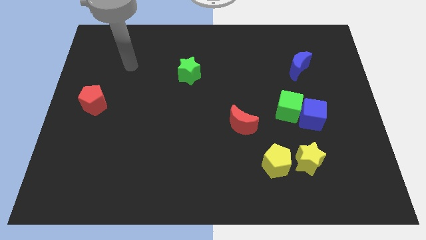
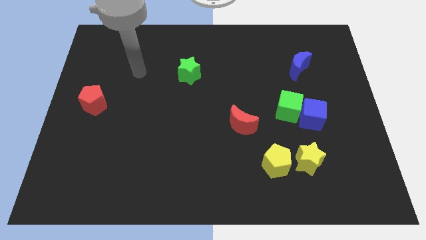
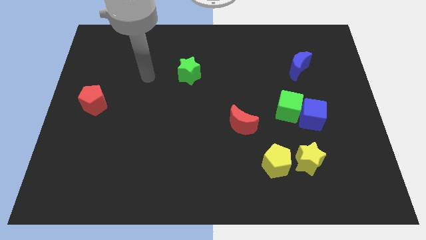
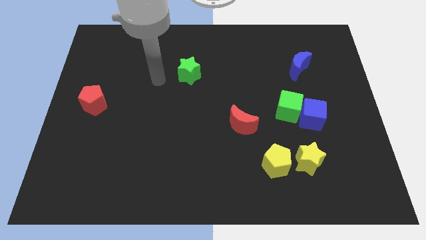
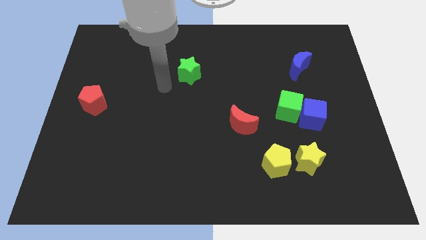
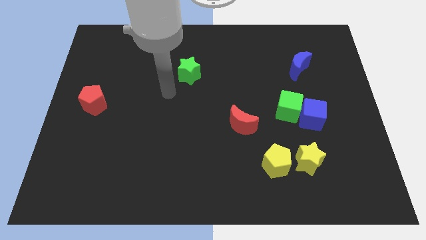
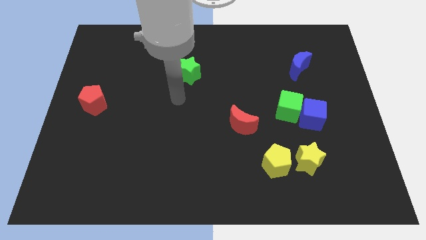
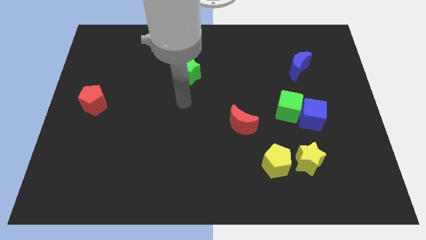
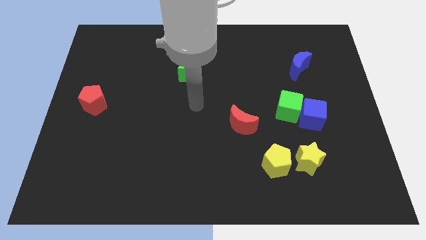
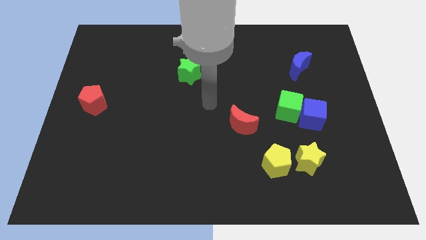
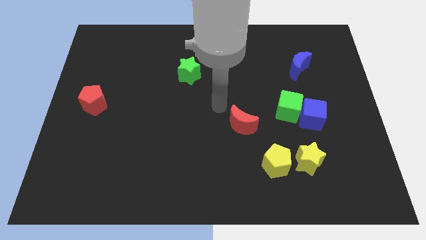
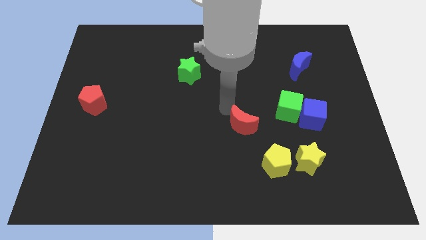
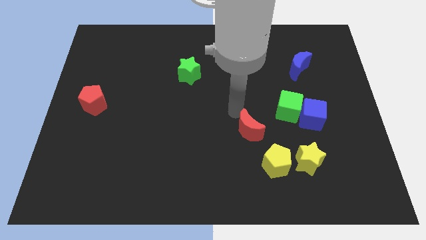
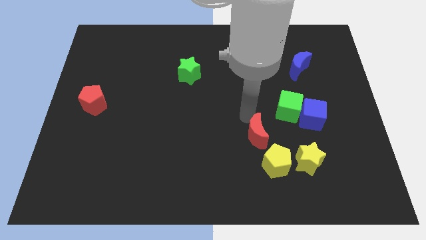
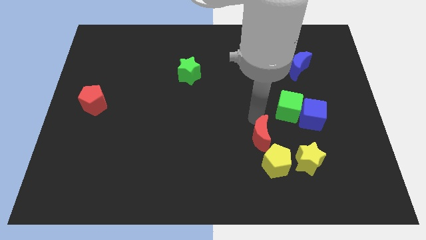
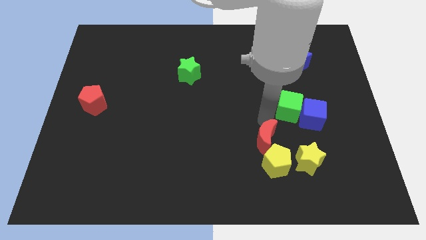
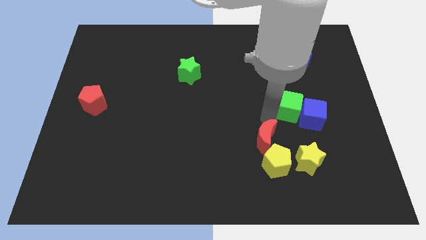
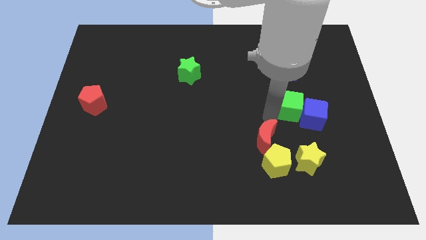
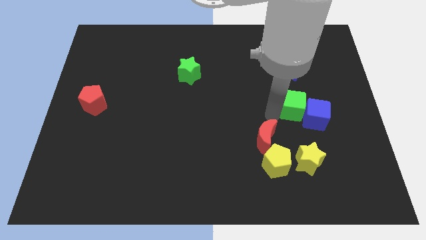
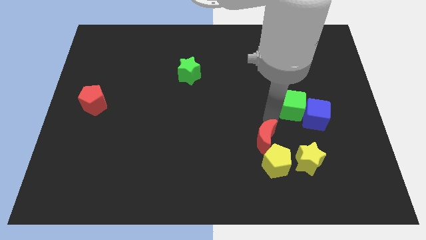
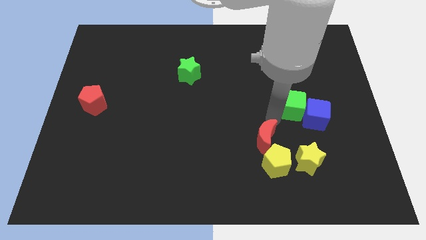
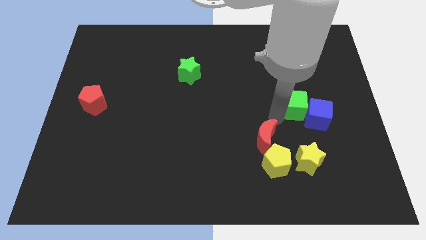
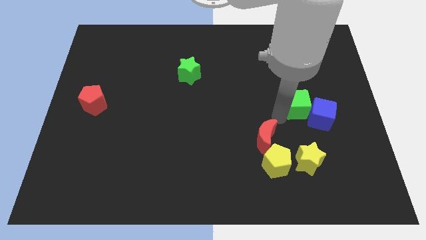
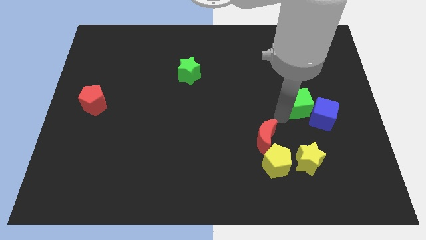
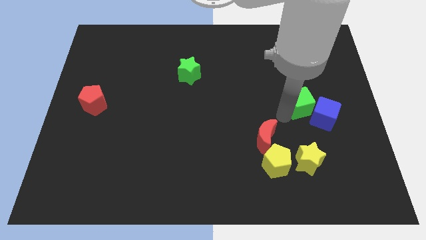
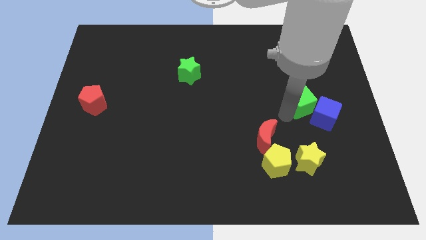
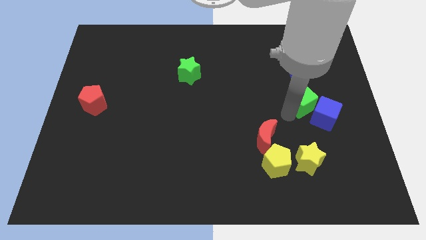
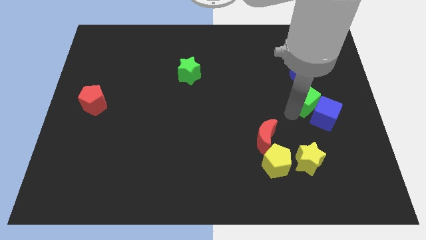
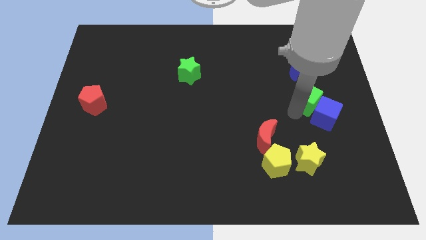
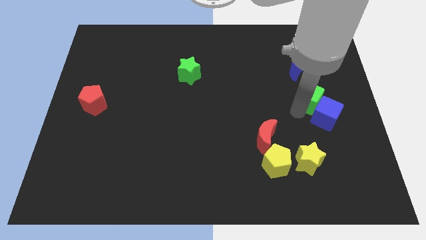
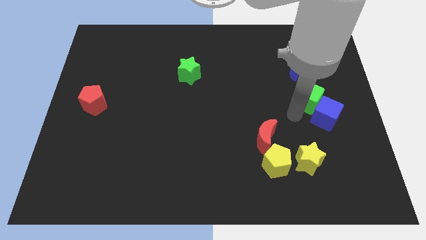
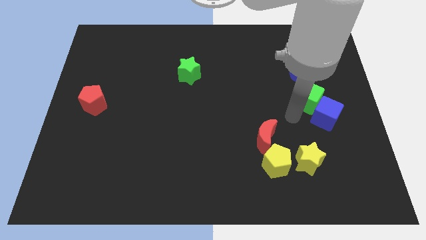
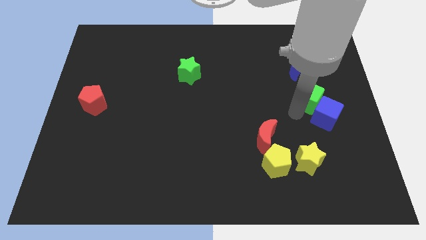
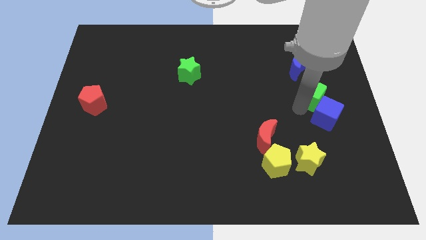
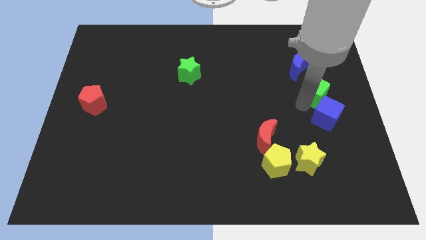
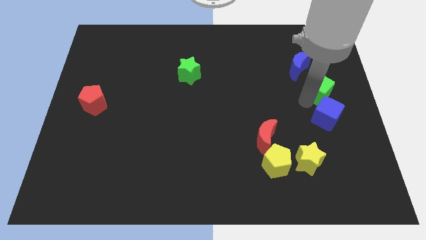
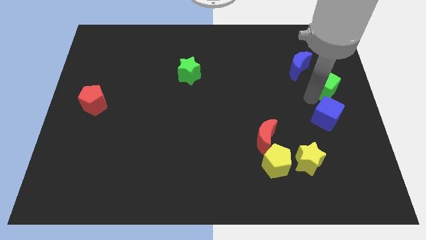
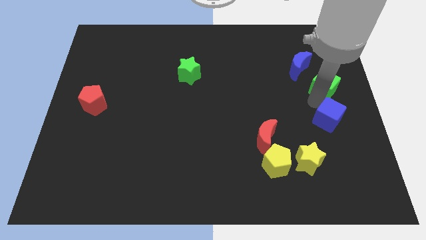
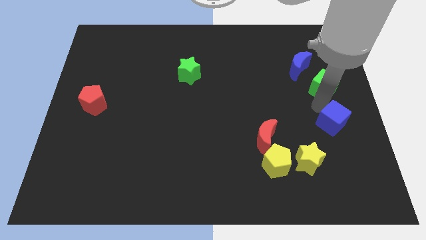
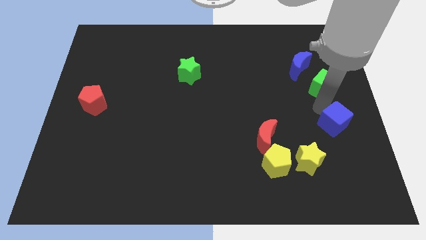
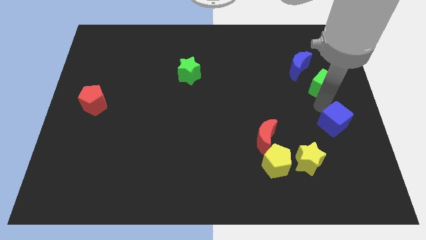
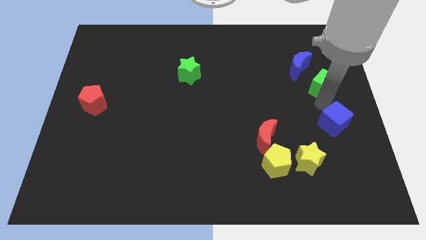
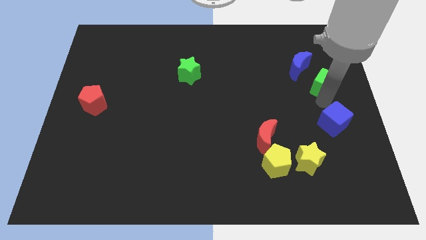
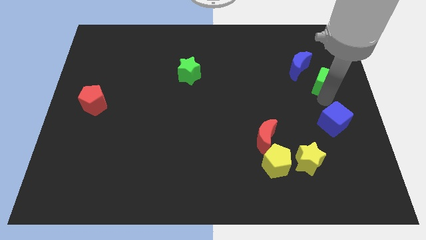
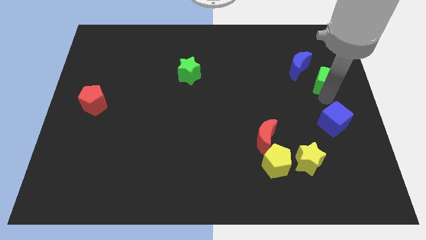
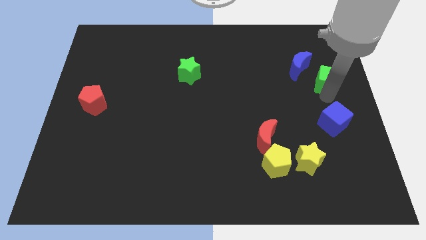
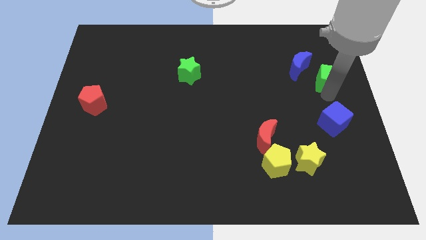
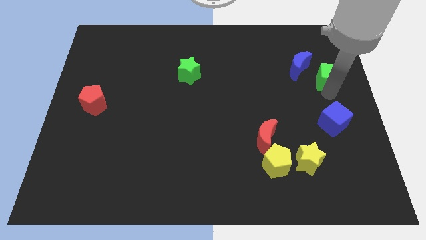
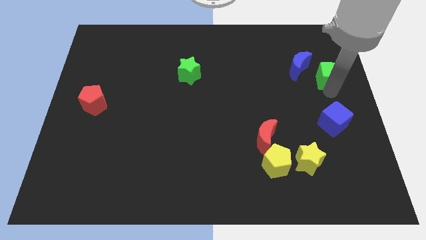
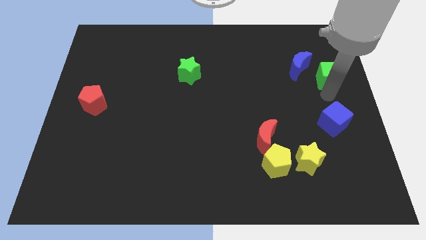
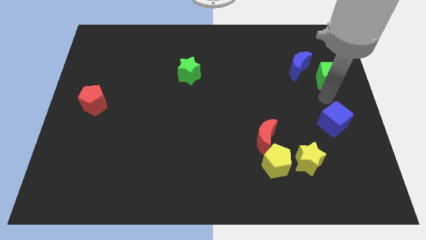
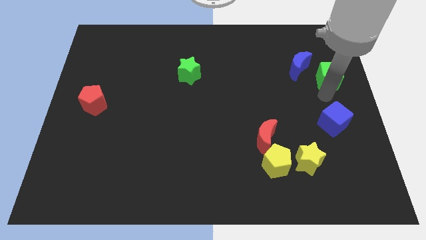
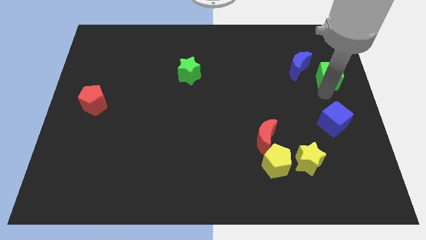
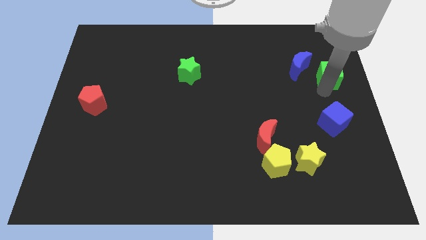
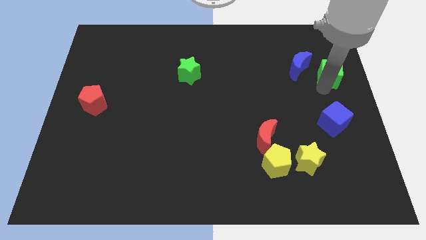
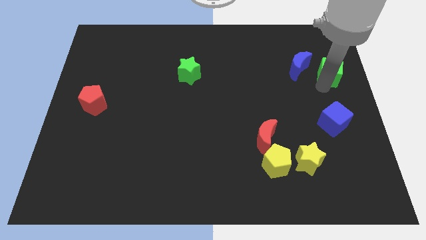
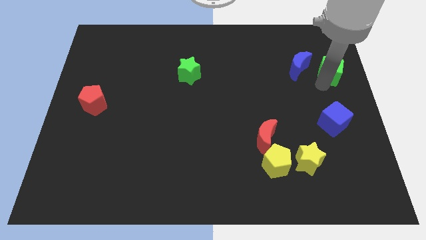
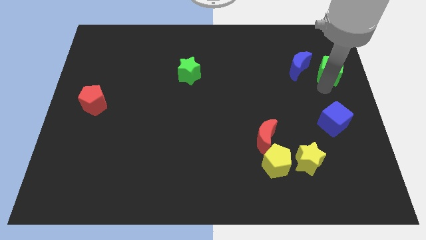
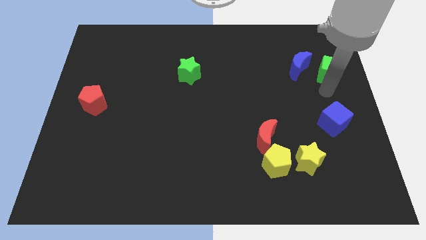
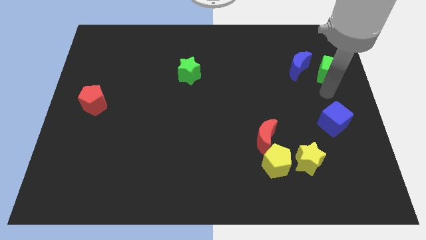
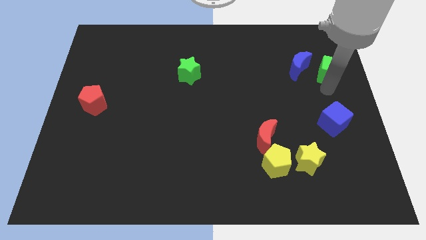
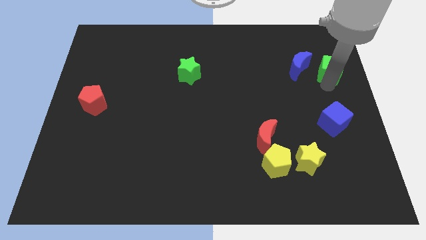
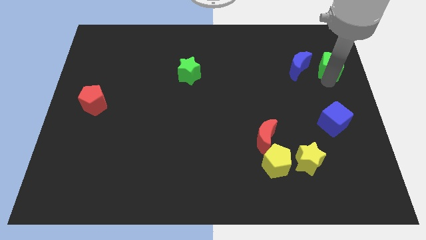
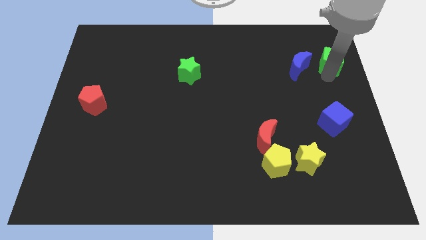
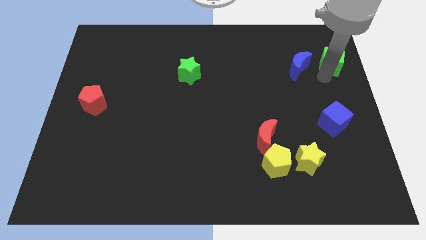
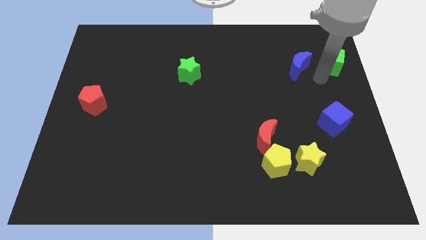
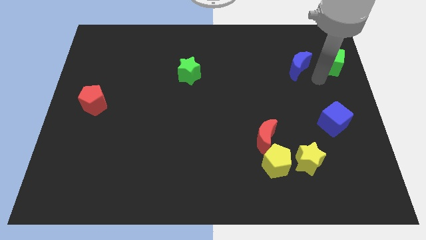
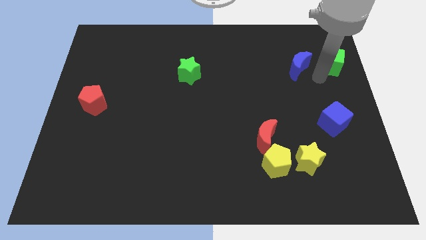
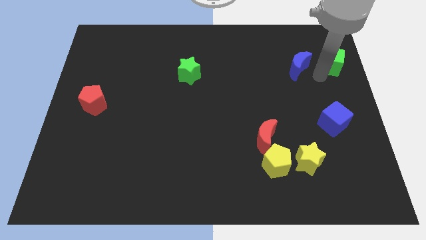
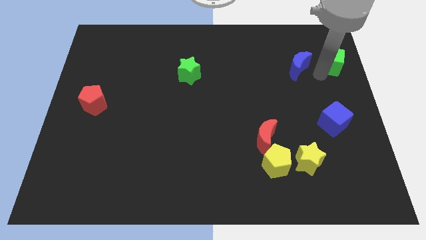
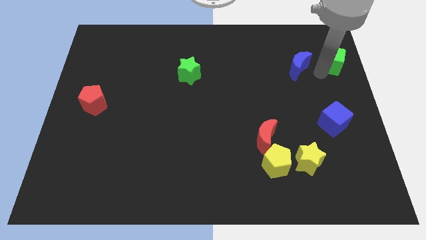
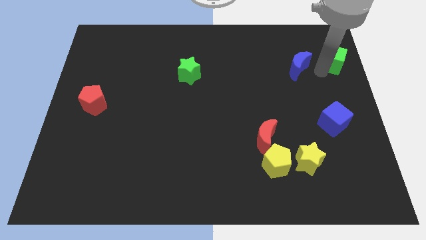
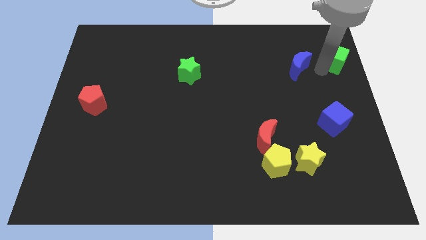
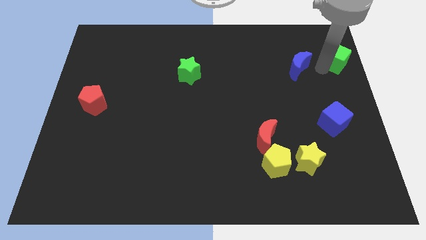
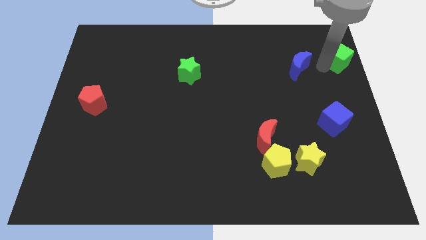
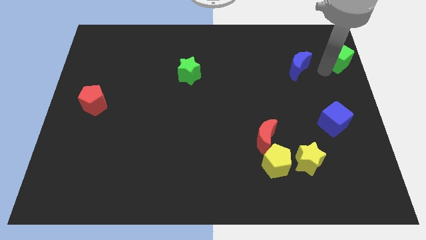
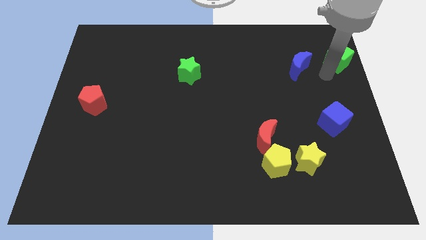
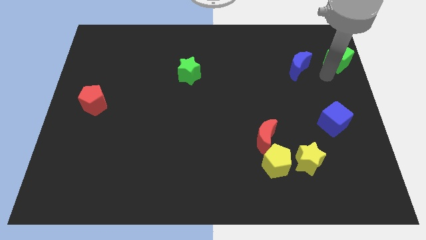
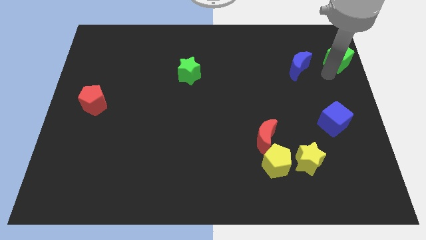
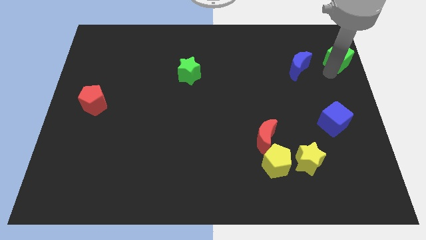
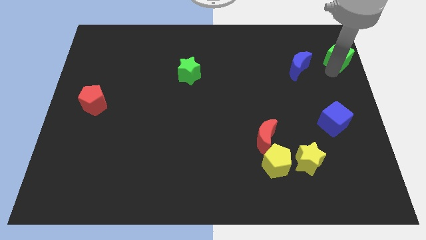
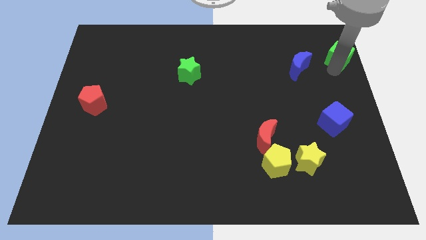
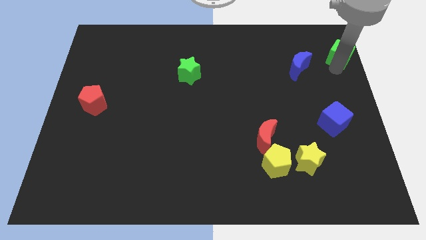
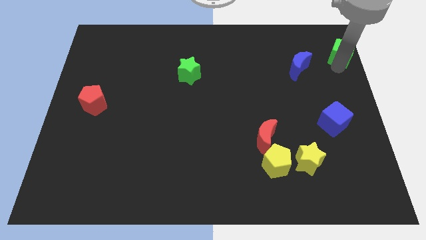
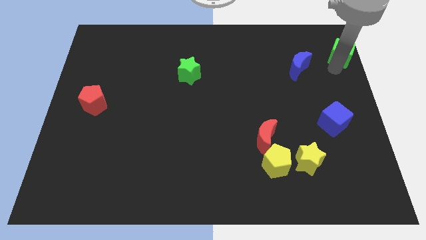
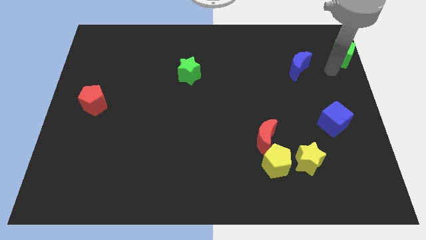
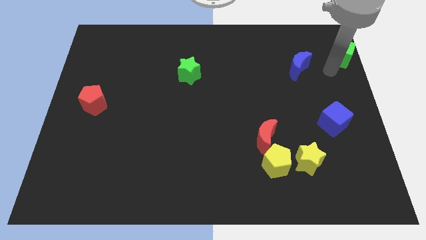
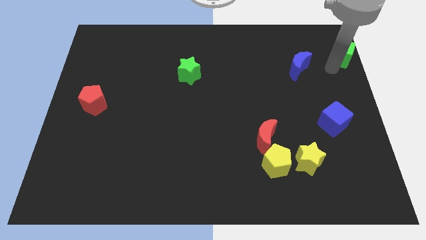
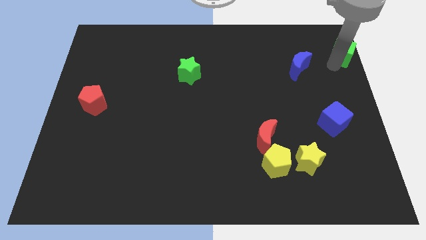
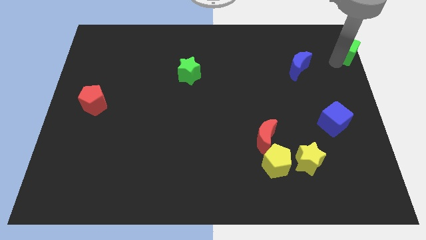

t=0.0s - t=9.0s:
move the green cube to the upper right corner
